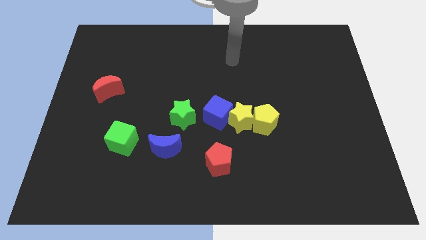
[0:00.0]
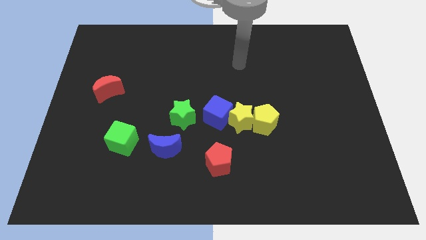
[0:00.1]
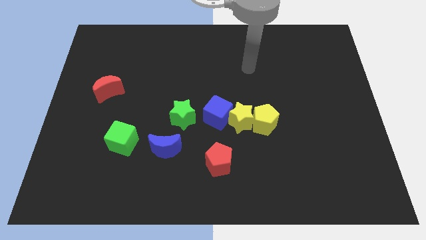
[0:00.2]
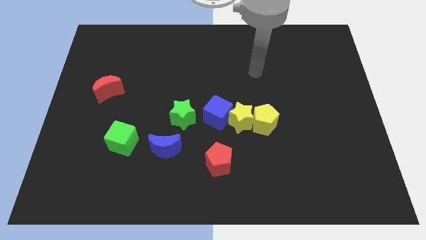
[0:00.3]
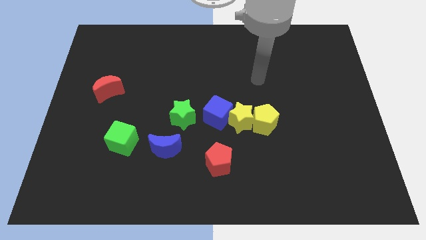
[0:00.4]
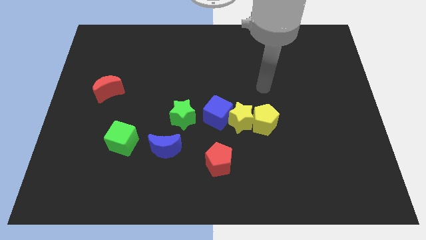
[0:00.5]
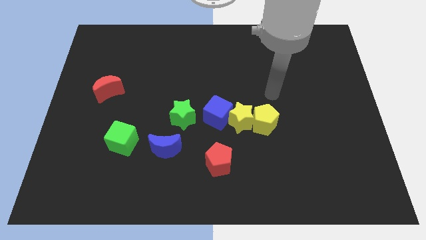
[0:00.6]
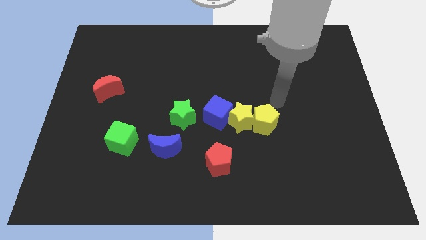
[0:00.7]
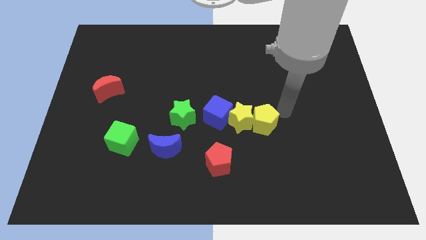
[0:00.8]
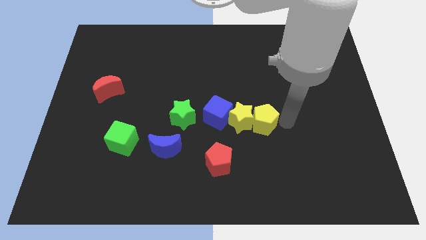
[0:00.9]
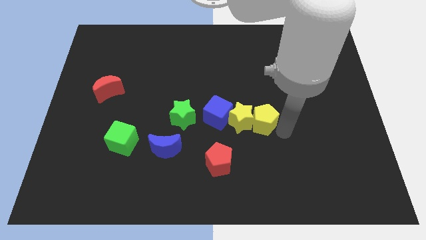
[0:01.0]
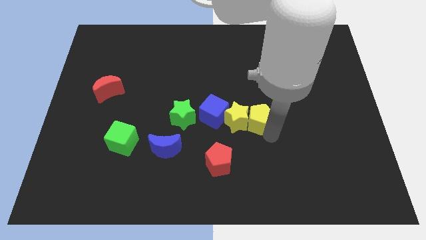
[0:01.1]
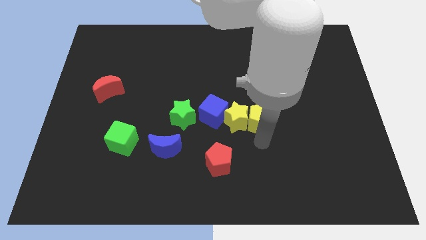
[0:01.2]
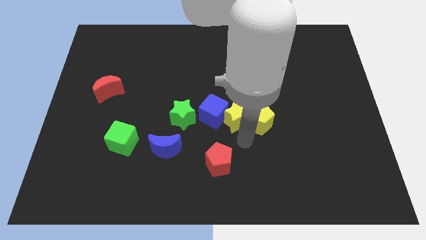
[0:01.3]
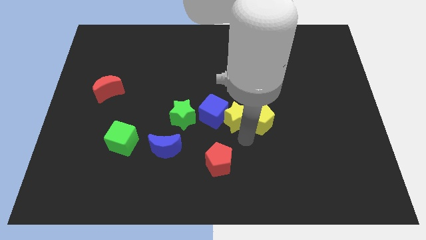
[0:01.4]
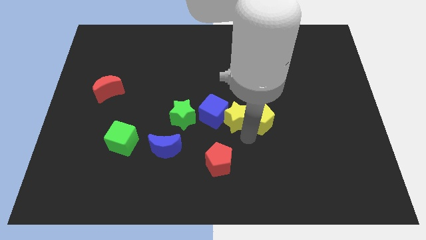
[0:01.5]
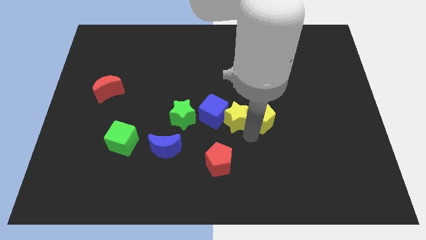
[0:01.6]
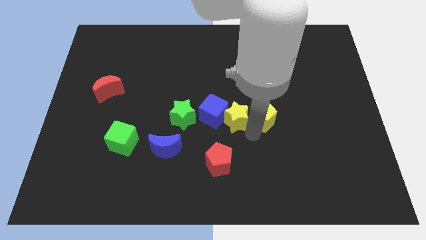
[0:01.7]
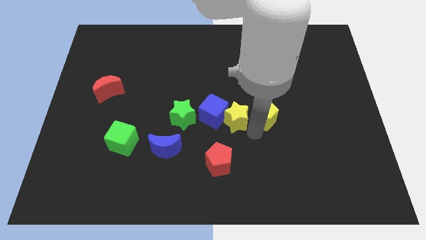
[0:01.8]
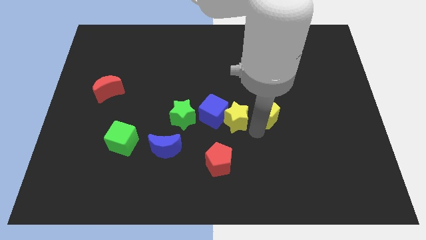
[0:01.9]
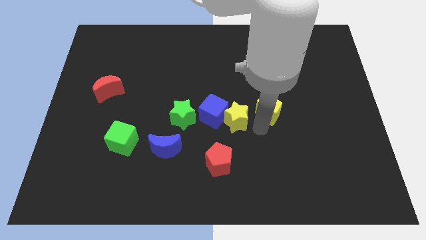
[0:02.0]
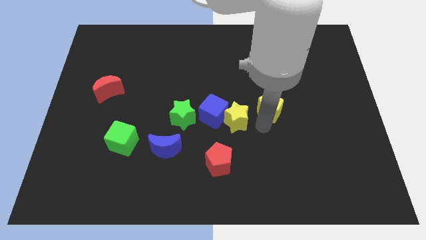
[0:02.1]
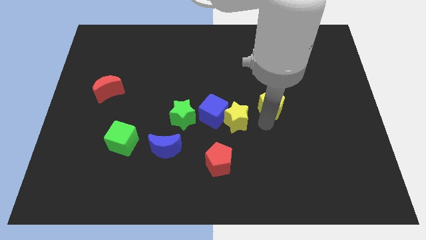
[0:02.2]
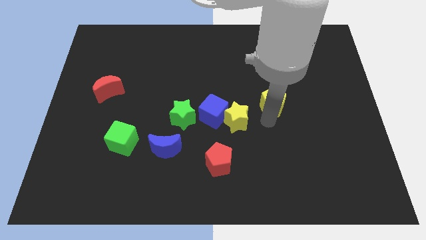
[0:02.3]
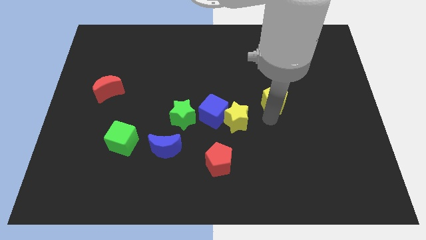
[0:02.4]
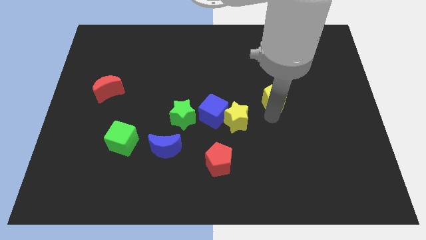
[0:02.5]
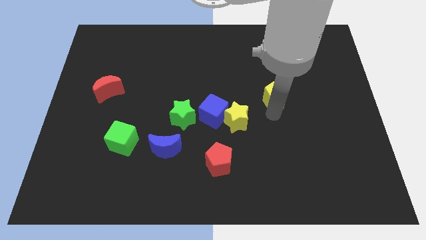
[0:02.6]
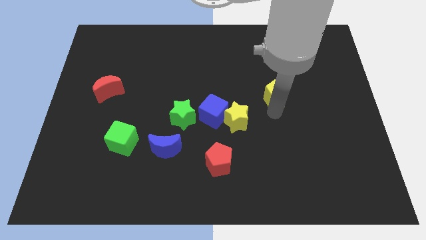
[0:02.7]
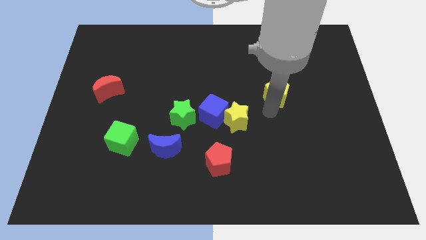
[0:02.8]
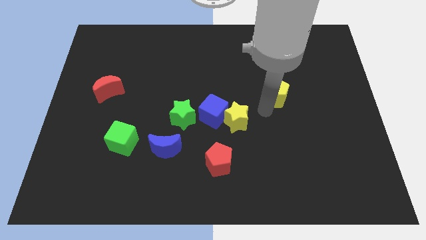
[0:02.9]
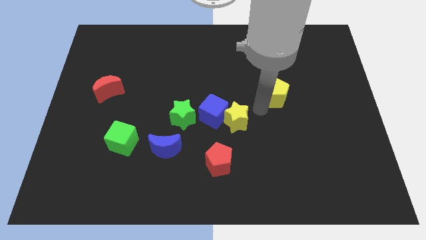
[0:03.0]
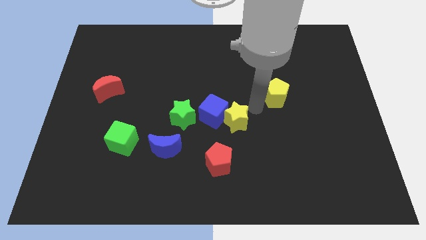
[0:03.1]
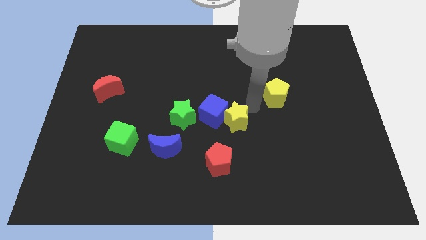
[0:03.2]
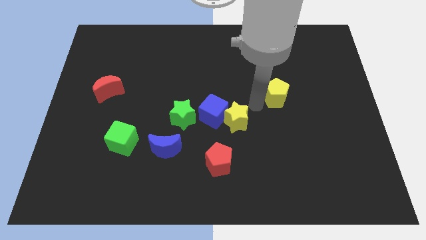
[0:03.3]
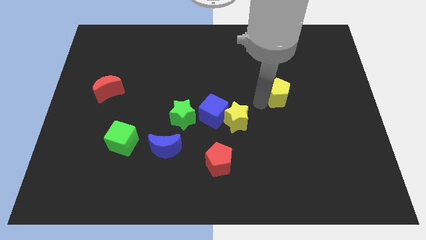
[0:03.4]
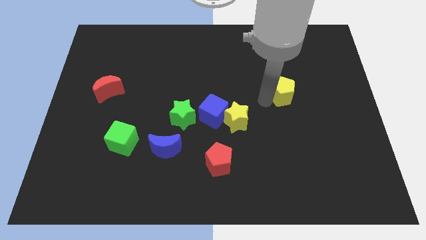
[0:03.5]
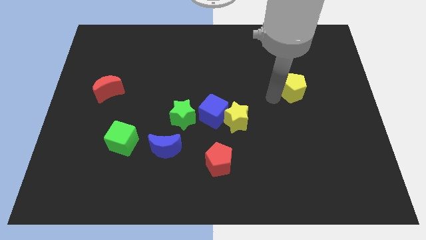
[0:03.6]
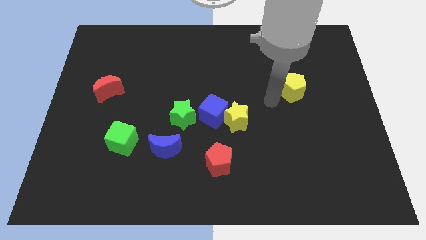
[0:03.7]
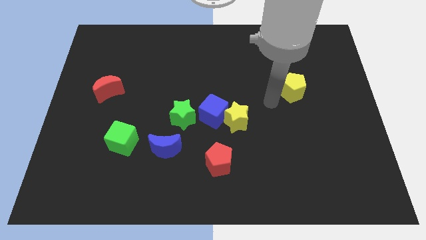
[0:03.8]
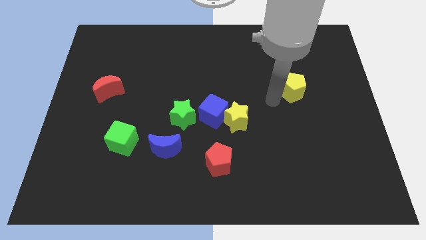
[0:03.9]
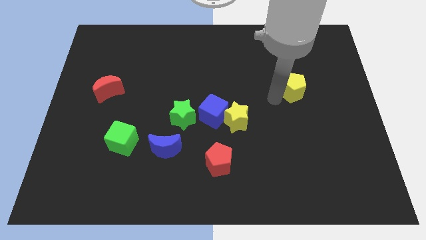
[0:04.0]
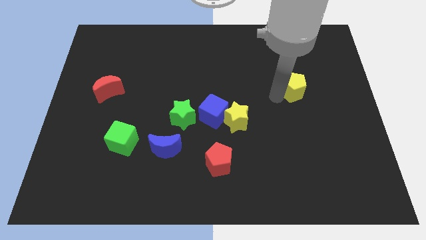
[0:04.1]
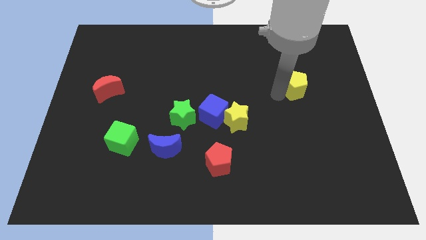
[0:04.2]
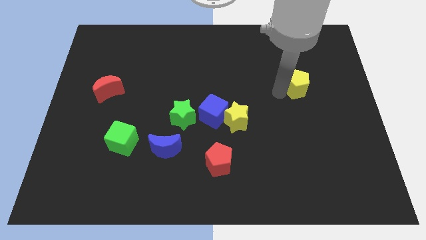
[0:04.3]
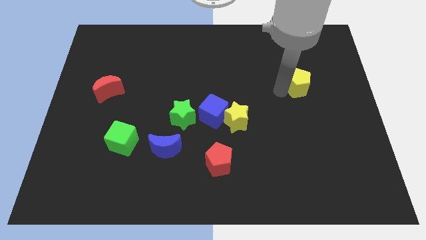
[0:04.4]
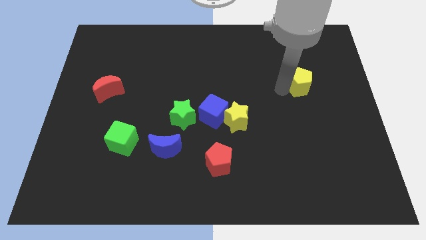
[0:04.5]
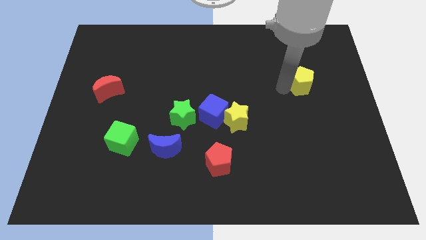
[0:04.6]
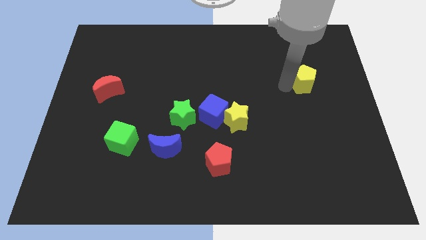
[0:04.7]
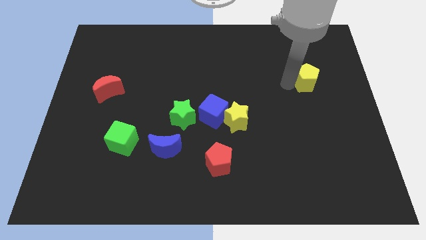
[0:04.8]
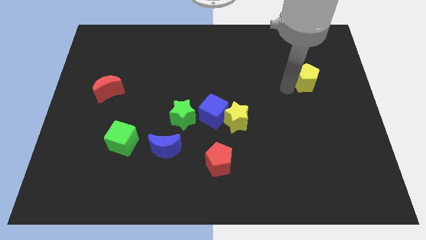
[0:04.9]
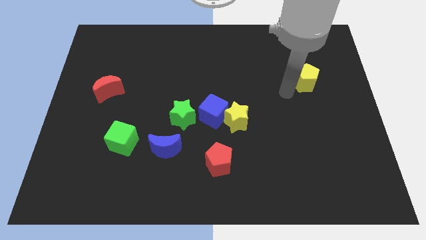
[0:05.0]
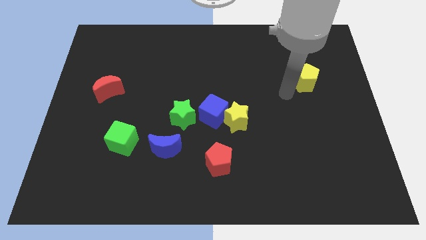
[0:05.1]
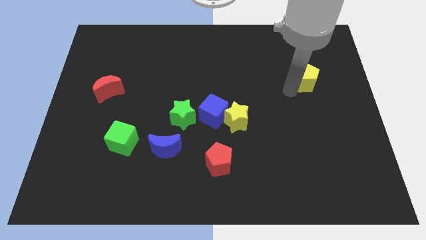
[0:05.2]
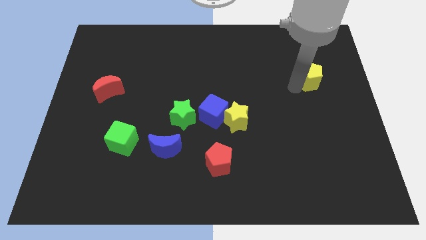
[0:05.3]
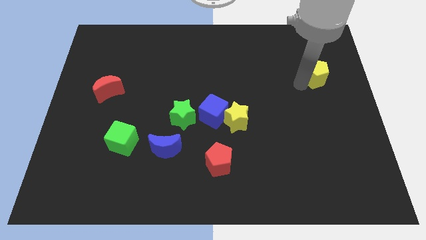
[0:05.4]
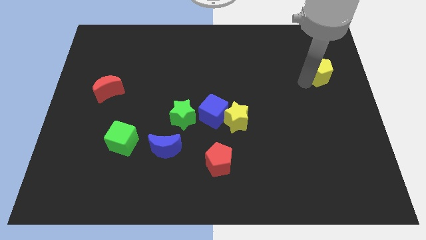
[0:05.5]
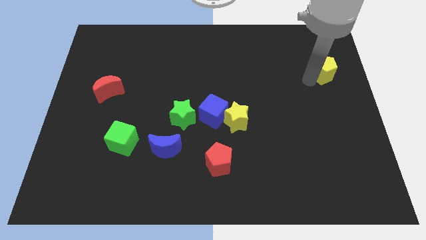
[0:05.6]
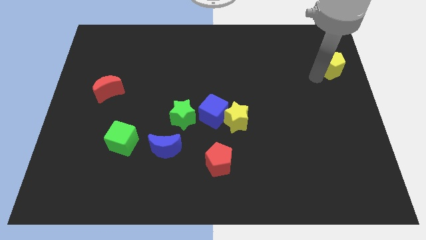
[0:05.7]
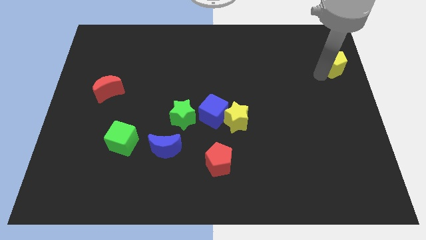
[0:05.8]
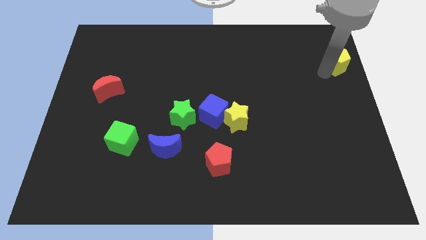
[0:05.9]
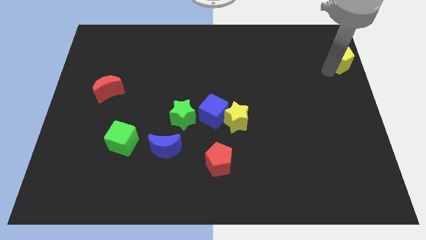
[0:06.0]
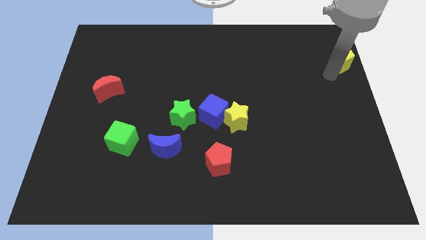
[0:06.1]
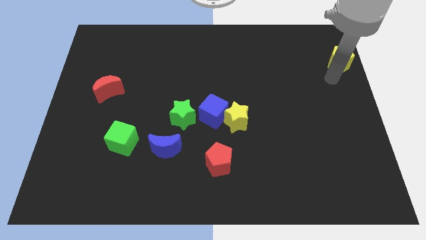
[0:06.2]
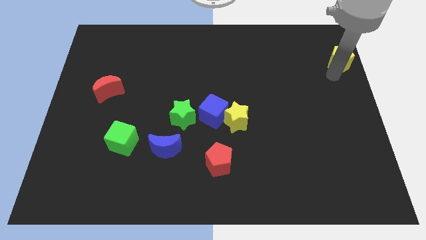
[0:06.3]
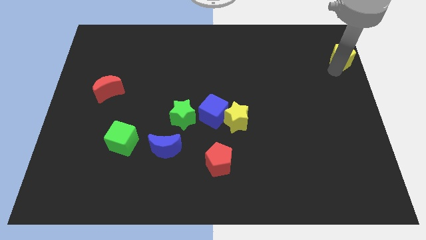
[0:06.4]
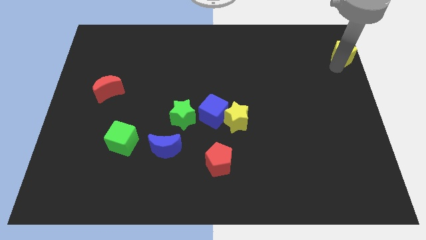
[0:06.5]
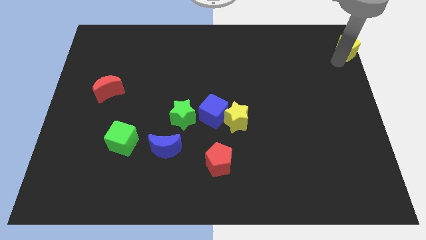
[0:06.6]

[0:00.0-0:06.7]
put the yellow pentagon to the top right of the board

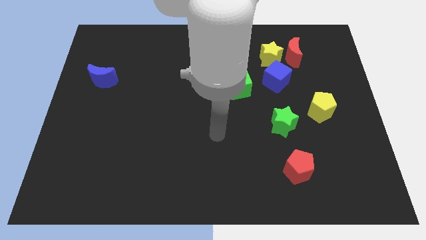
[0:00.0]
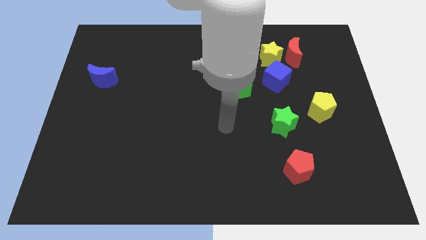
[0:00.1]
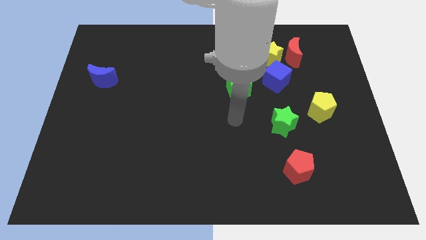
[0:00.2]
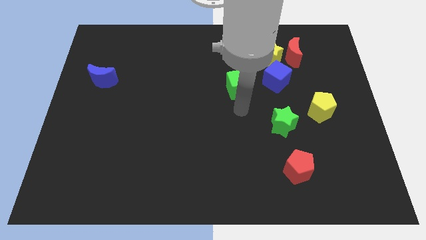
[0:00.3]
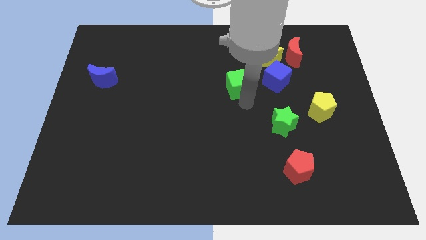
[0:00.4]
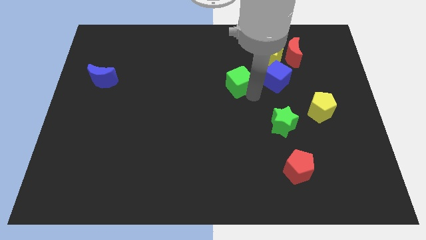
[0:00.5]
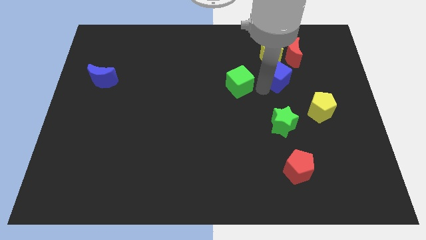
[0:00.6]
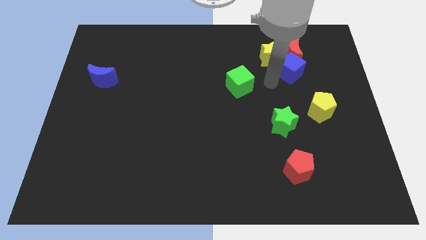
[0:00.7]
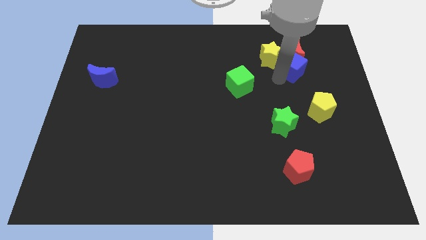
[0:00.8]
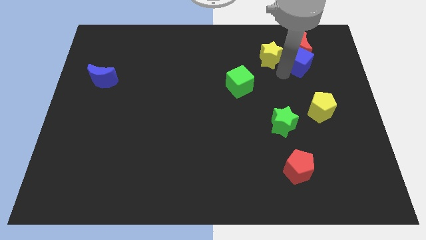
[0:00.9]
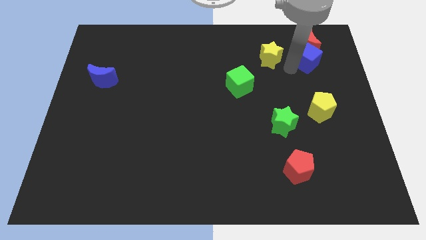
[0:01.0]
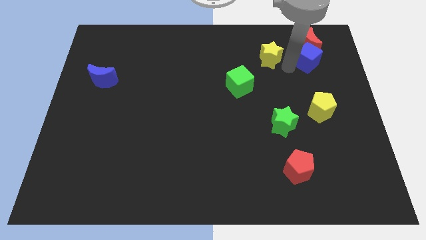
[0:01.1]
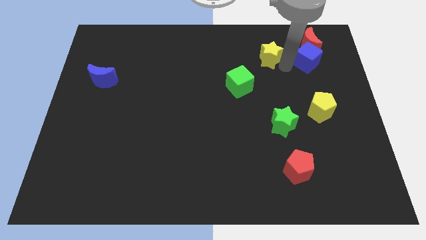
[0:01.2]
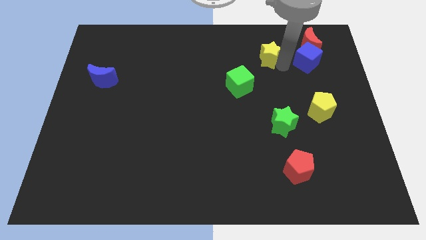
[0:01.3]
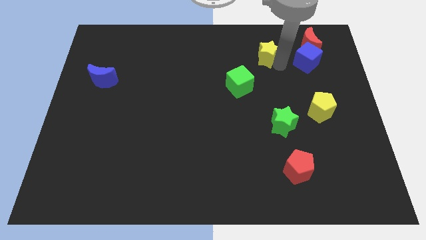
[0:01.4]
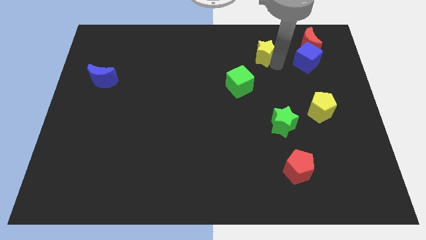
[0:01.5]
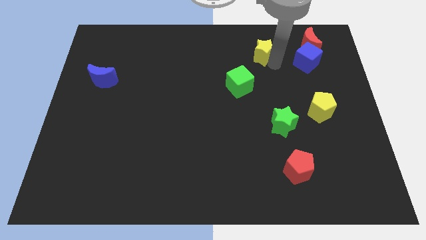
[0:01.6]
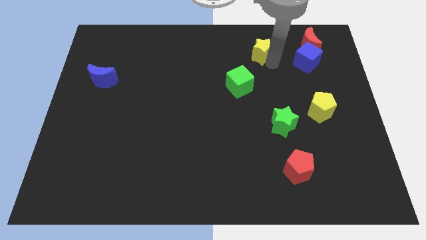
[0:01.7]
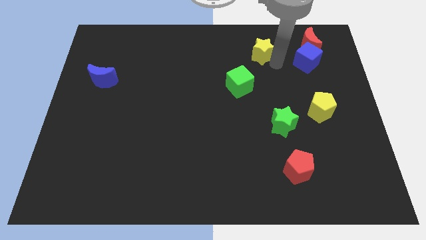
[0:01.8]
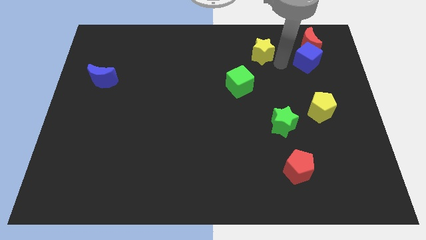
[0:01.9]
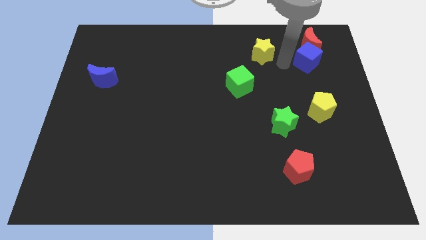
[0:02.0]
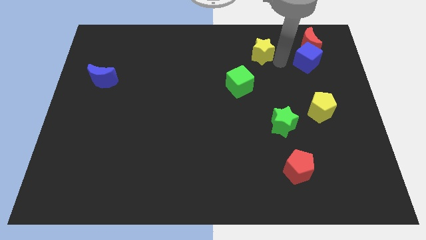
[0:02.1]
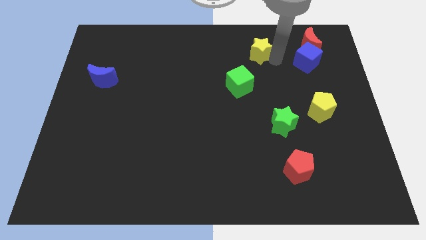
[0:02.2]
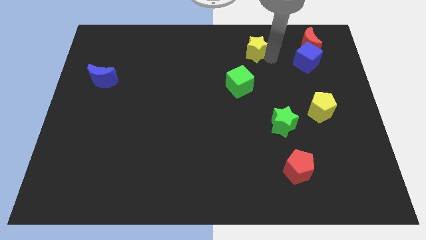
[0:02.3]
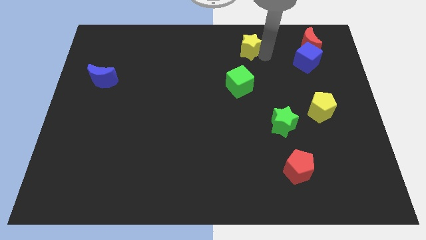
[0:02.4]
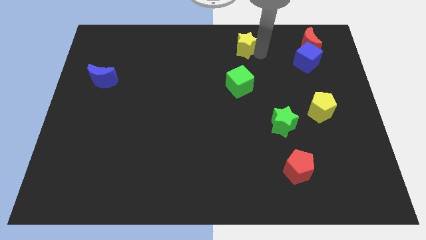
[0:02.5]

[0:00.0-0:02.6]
move the yellow star to the top side
